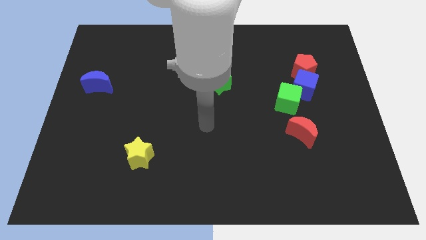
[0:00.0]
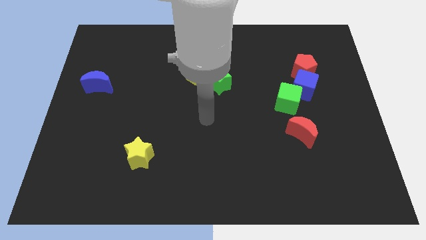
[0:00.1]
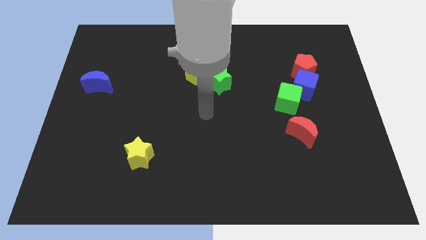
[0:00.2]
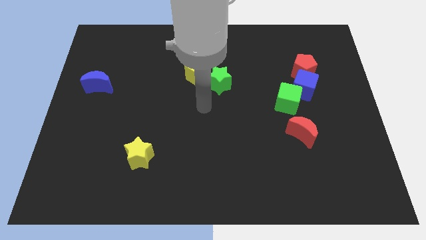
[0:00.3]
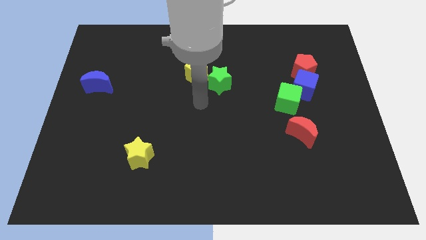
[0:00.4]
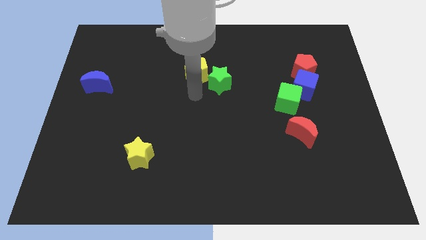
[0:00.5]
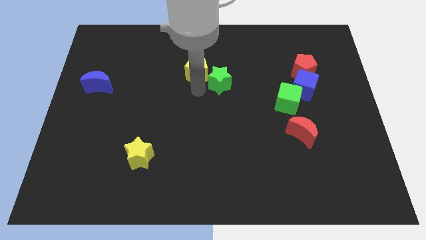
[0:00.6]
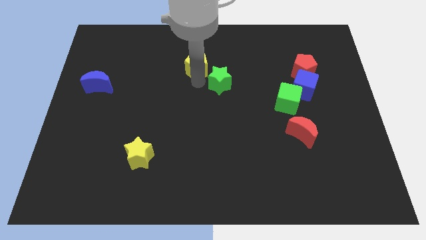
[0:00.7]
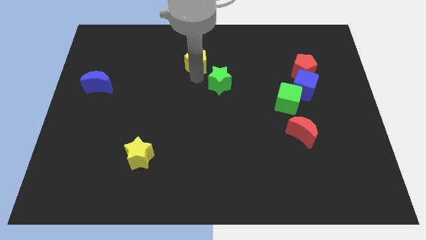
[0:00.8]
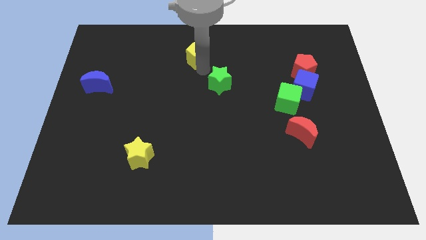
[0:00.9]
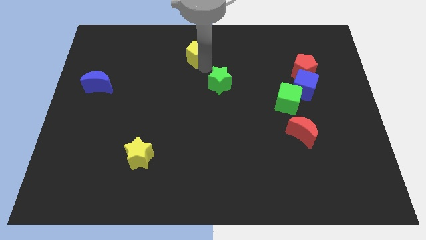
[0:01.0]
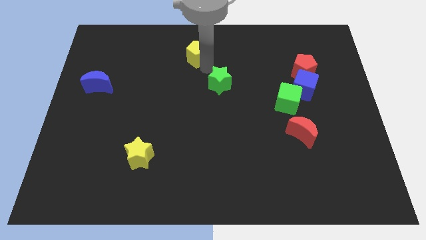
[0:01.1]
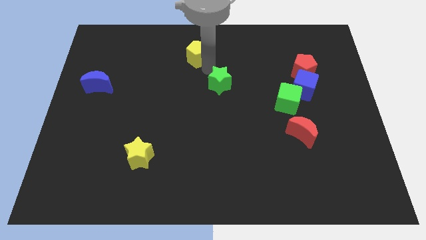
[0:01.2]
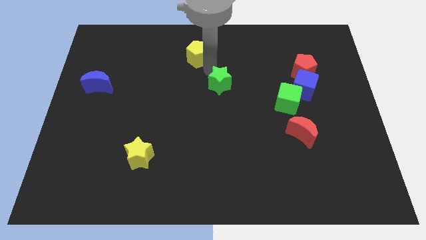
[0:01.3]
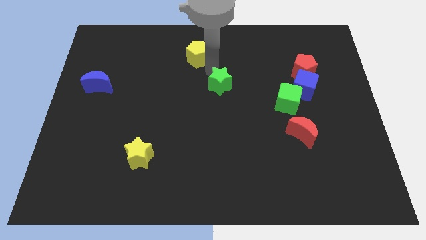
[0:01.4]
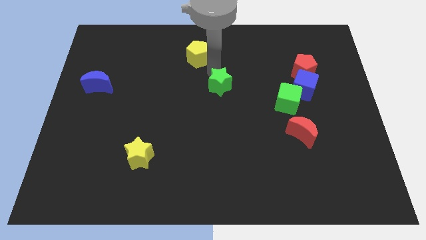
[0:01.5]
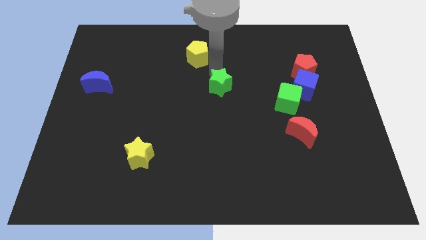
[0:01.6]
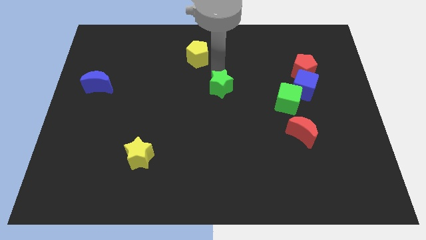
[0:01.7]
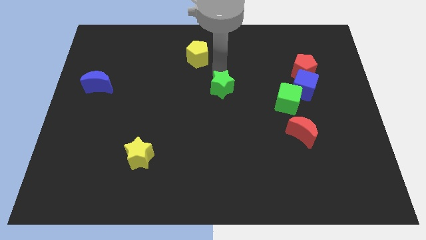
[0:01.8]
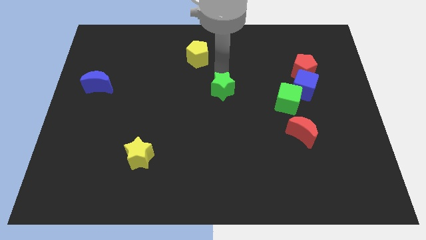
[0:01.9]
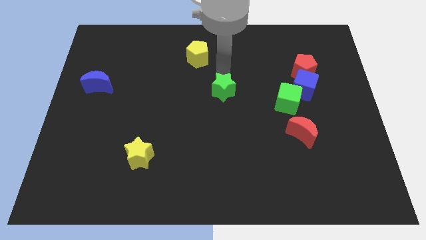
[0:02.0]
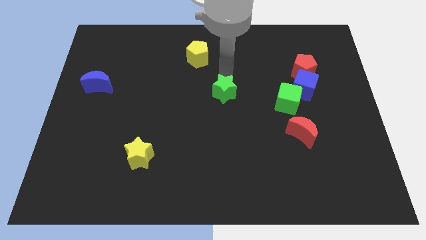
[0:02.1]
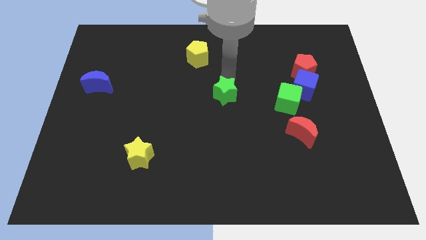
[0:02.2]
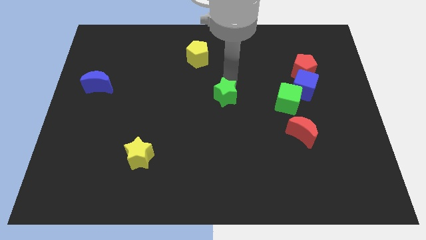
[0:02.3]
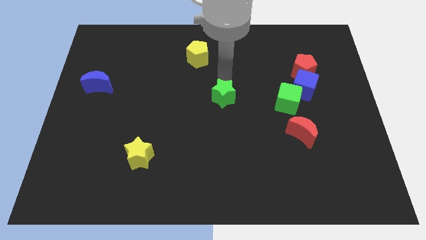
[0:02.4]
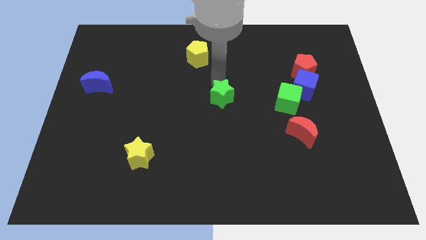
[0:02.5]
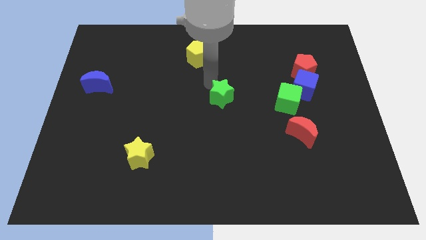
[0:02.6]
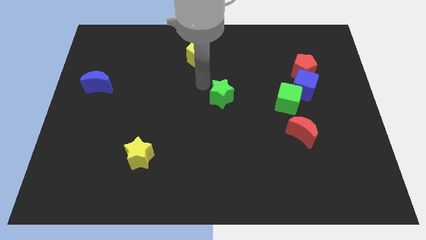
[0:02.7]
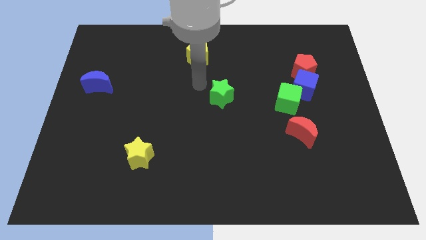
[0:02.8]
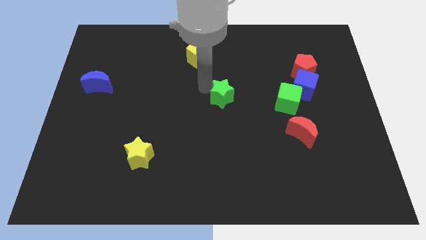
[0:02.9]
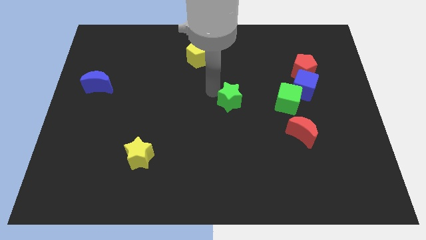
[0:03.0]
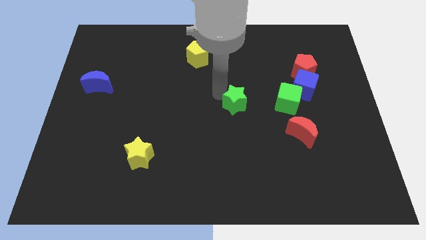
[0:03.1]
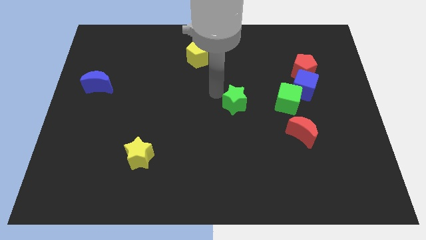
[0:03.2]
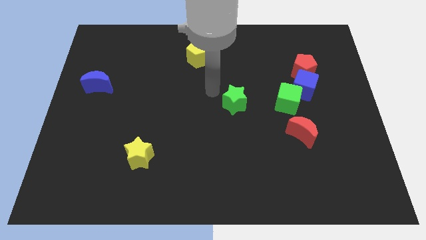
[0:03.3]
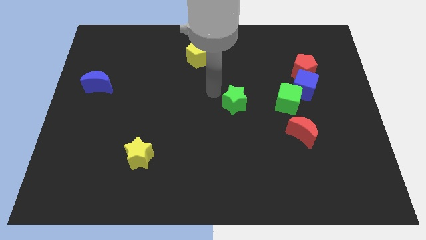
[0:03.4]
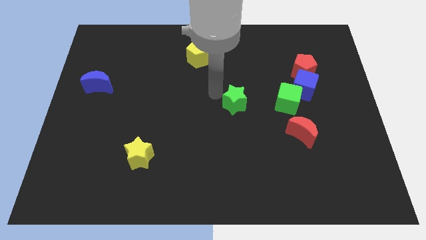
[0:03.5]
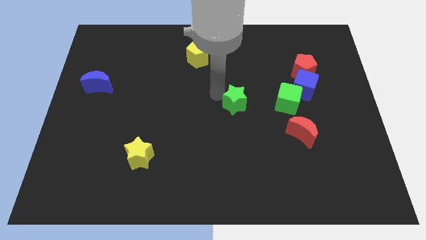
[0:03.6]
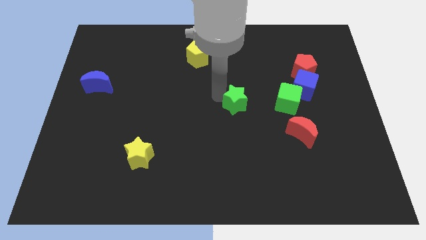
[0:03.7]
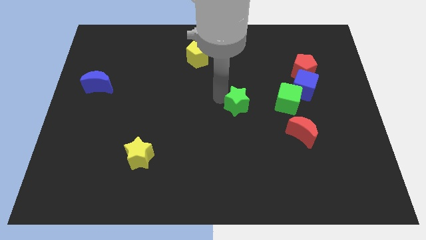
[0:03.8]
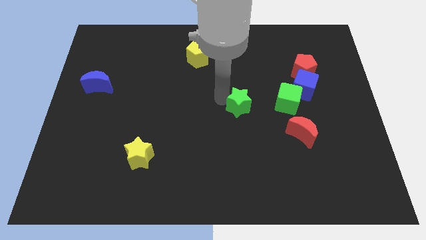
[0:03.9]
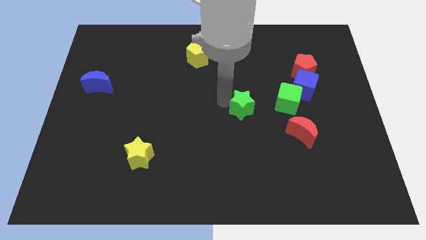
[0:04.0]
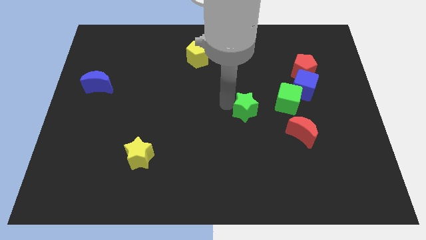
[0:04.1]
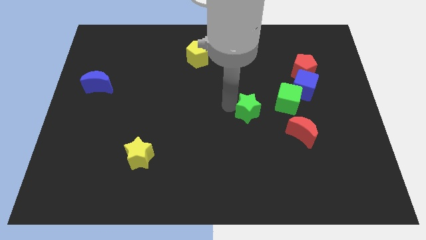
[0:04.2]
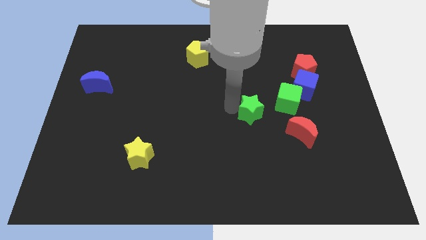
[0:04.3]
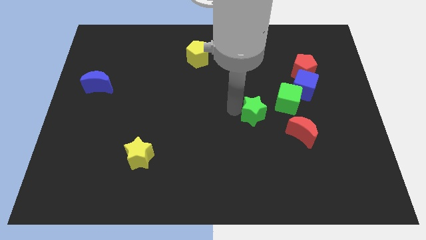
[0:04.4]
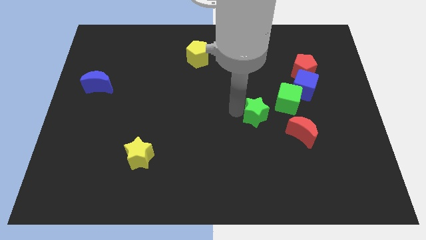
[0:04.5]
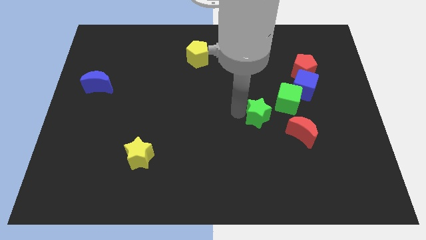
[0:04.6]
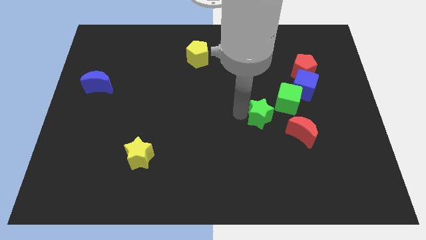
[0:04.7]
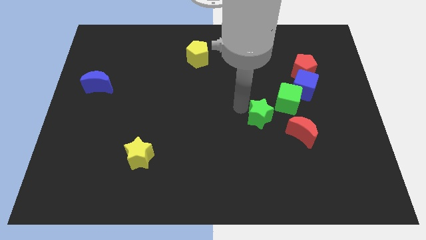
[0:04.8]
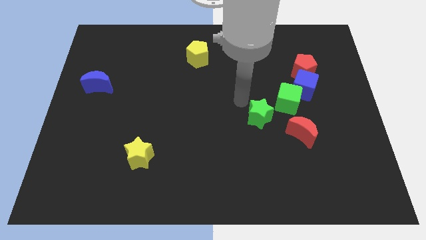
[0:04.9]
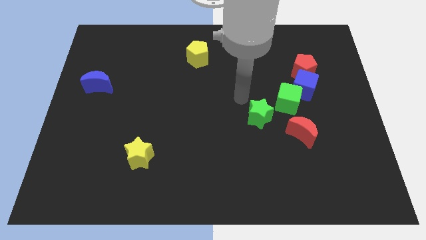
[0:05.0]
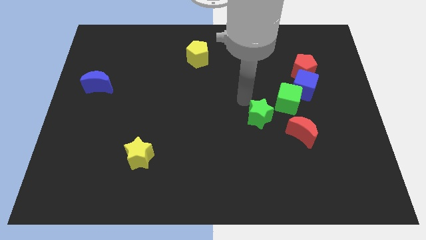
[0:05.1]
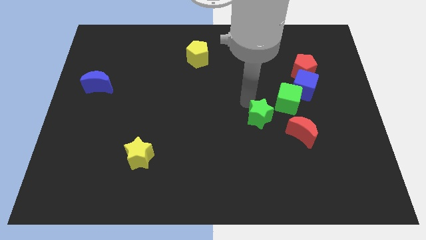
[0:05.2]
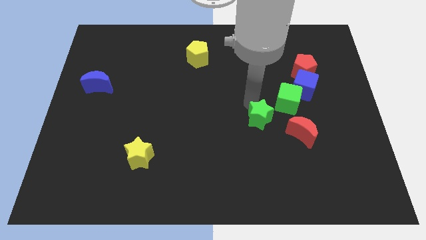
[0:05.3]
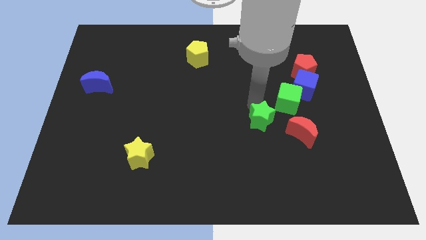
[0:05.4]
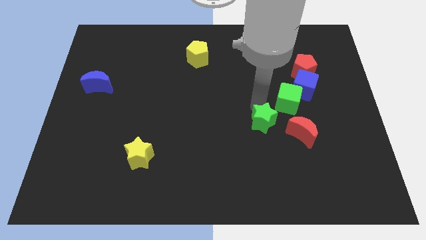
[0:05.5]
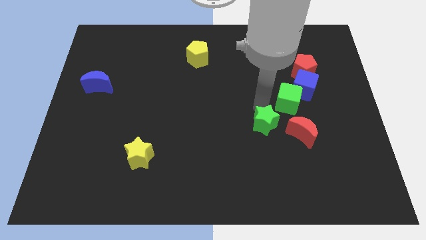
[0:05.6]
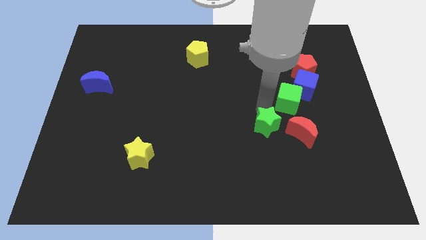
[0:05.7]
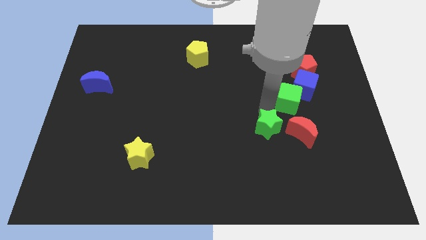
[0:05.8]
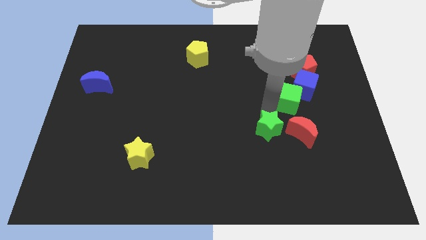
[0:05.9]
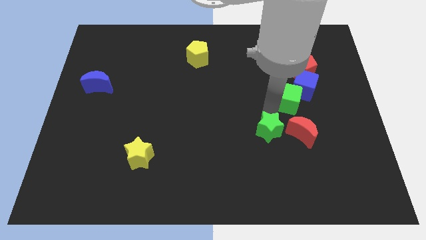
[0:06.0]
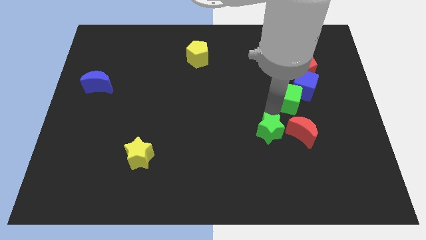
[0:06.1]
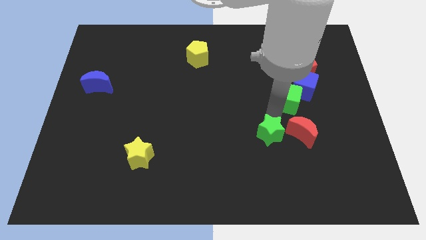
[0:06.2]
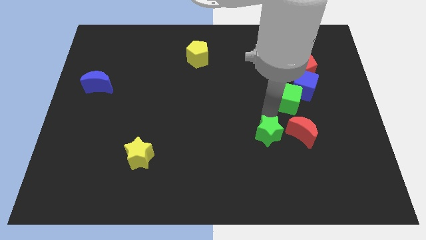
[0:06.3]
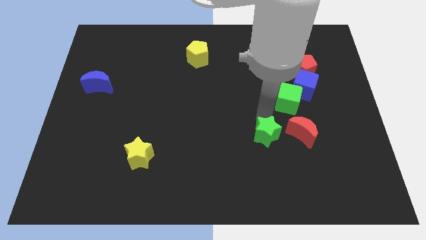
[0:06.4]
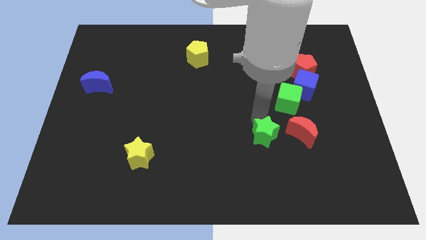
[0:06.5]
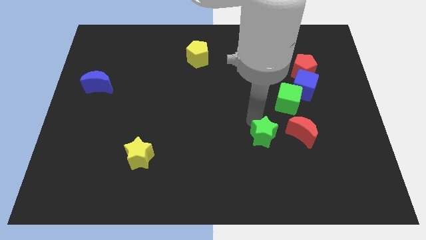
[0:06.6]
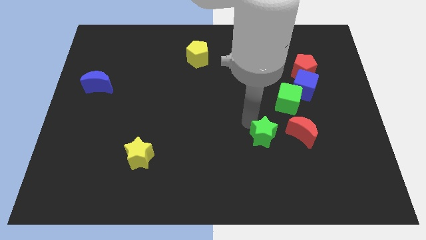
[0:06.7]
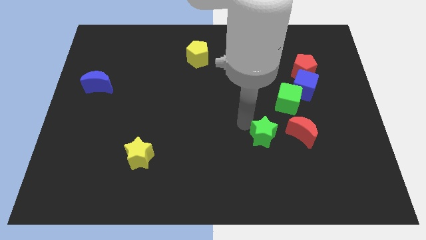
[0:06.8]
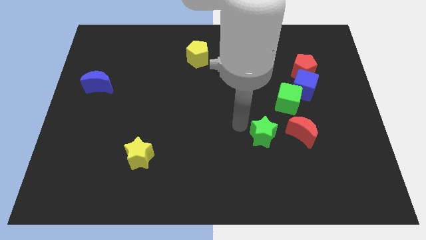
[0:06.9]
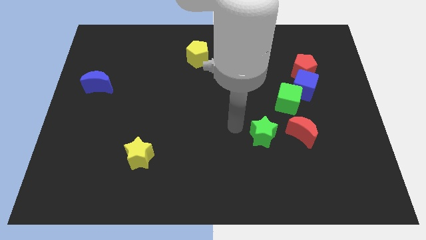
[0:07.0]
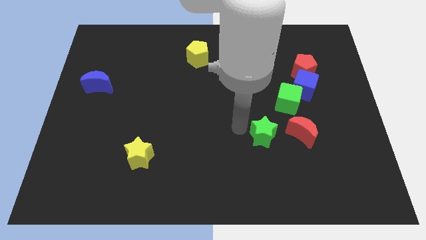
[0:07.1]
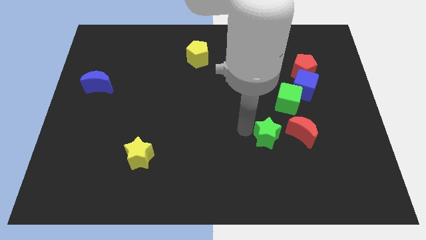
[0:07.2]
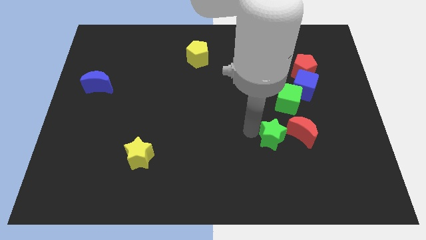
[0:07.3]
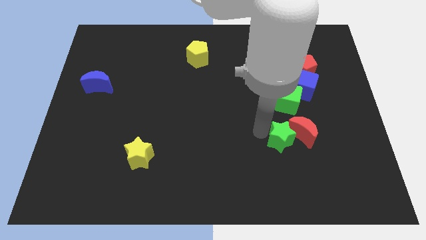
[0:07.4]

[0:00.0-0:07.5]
slide the green star downwards and to the right

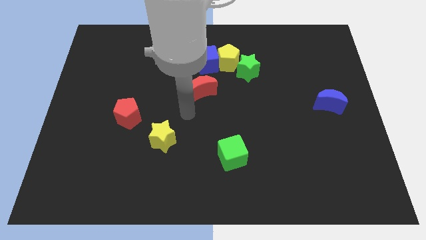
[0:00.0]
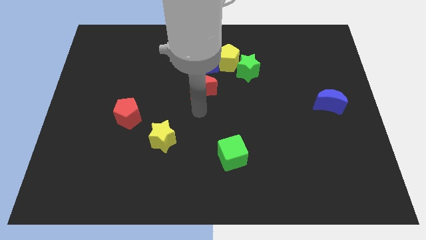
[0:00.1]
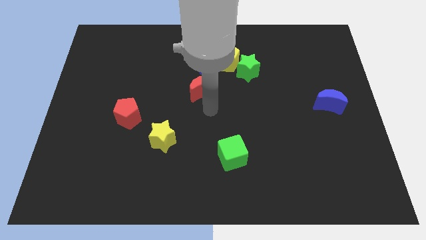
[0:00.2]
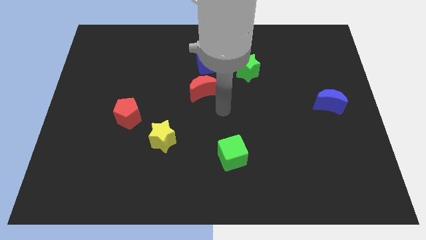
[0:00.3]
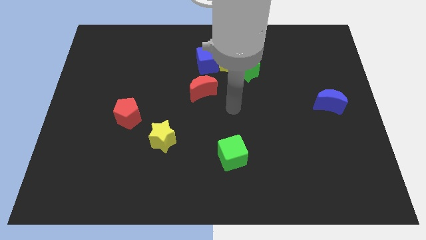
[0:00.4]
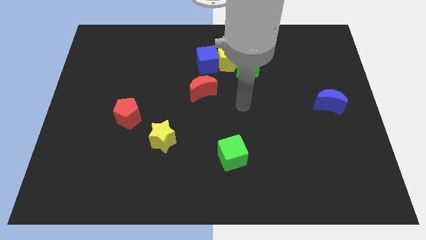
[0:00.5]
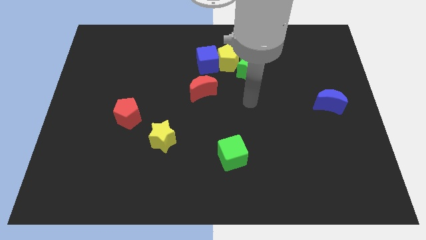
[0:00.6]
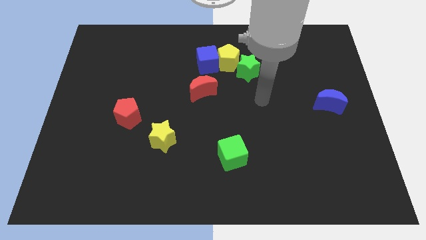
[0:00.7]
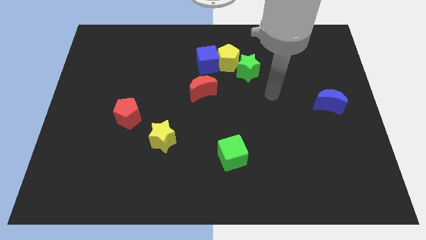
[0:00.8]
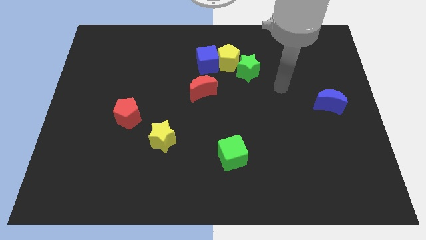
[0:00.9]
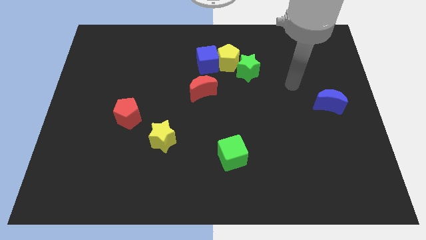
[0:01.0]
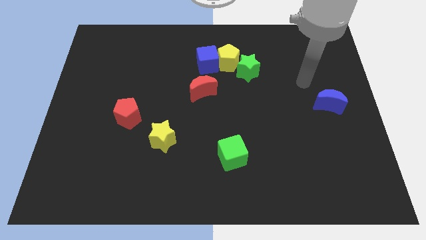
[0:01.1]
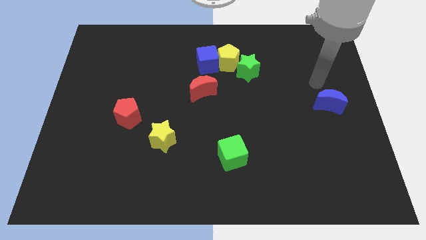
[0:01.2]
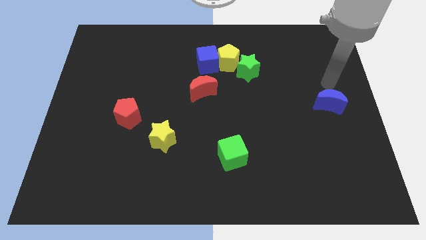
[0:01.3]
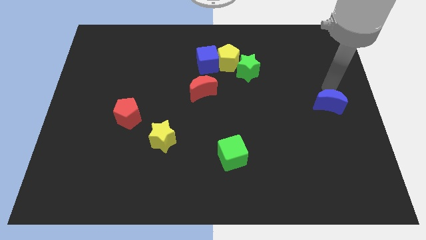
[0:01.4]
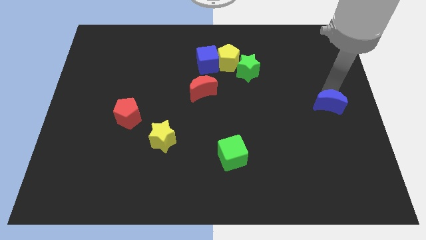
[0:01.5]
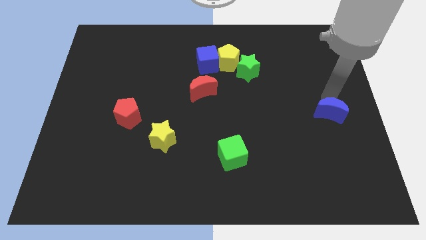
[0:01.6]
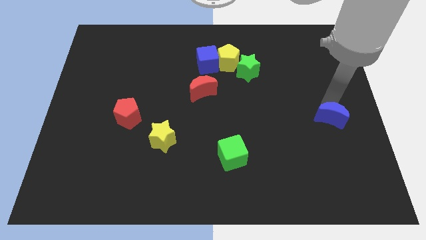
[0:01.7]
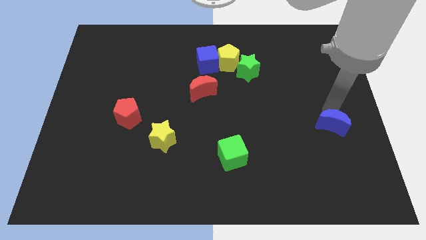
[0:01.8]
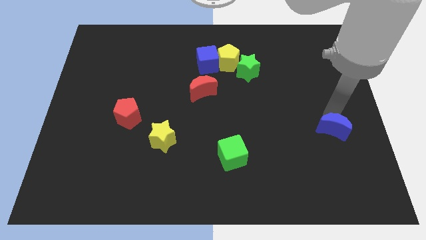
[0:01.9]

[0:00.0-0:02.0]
push the blue moon somewhat down
